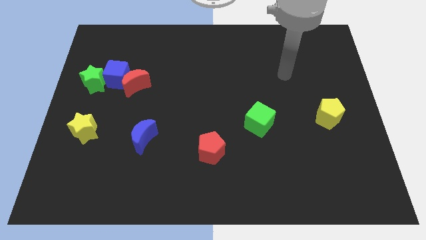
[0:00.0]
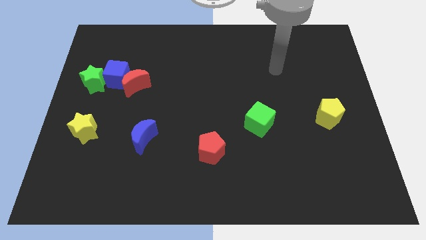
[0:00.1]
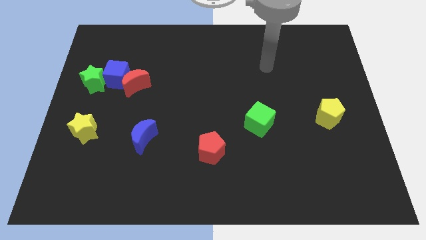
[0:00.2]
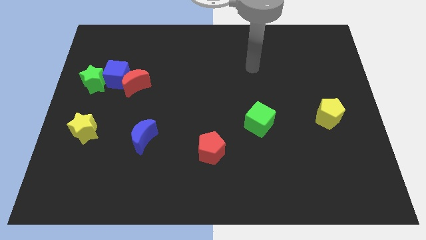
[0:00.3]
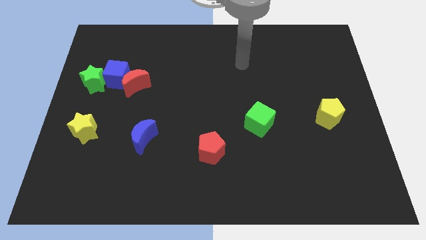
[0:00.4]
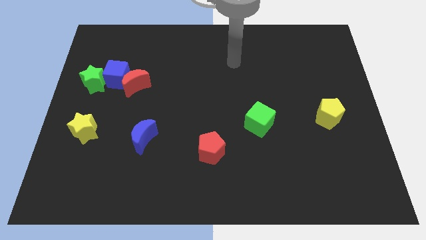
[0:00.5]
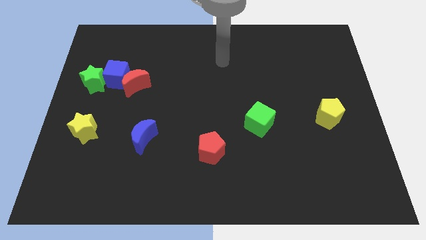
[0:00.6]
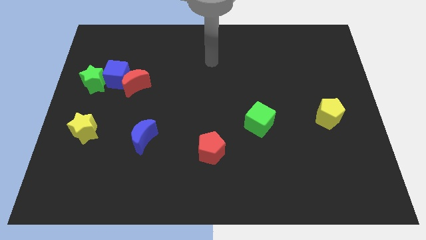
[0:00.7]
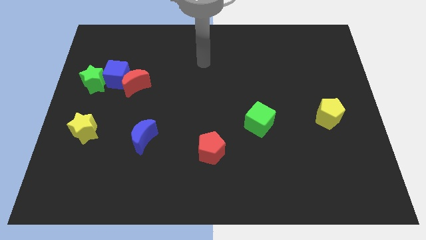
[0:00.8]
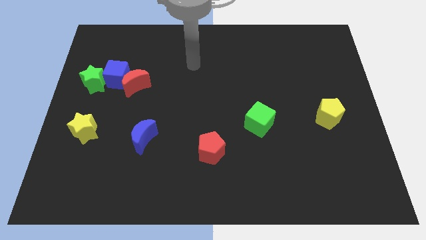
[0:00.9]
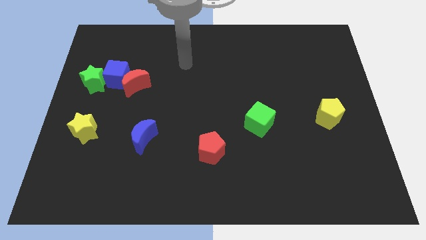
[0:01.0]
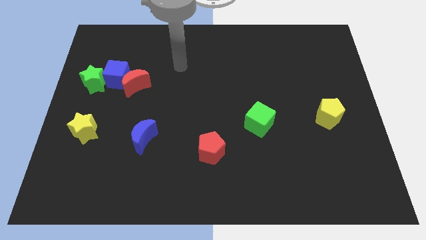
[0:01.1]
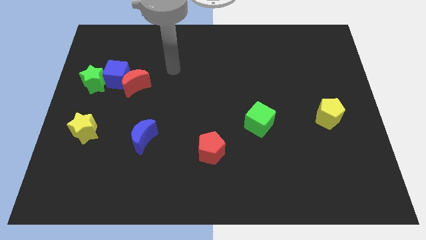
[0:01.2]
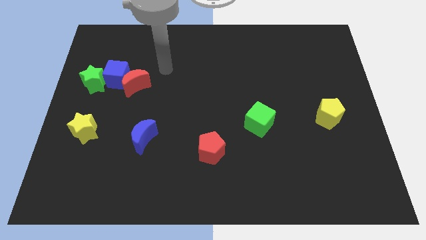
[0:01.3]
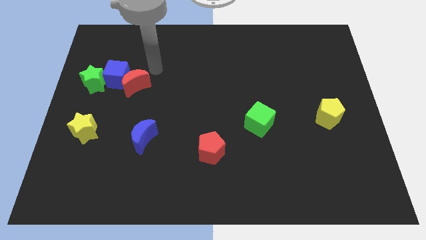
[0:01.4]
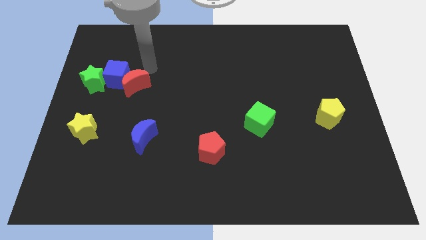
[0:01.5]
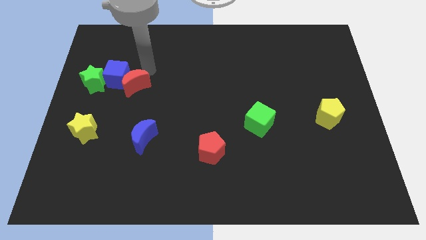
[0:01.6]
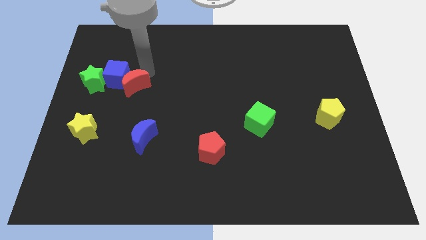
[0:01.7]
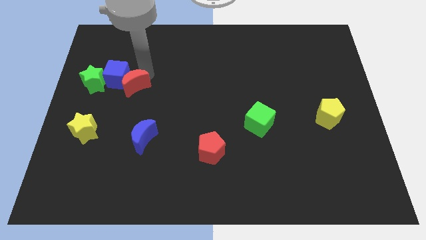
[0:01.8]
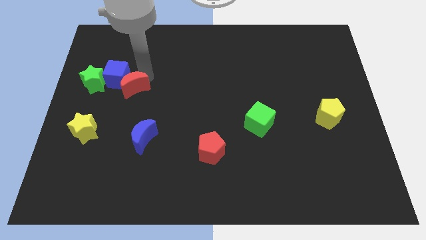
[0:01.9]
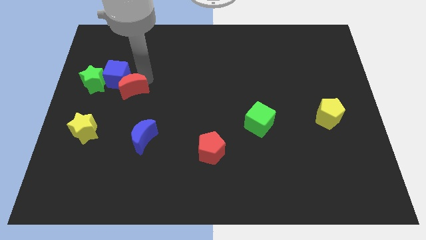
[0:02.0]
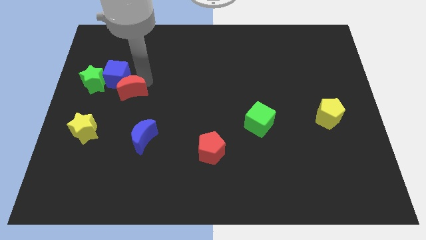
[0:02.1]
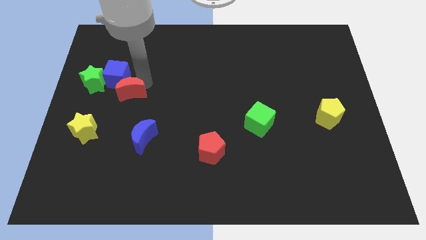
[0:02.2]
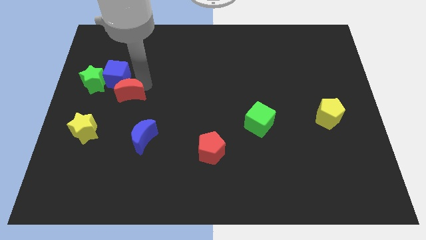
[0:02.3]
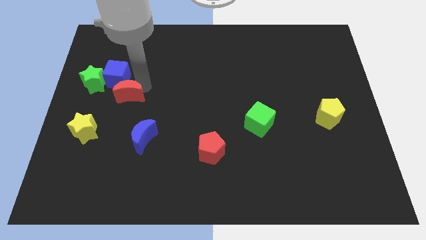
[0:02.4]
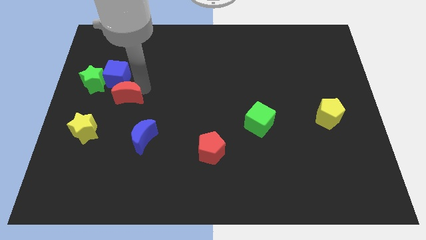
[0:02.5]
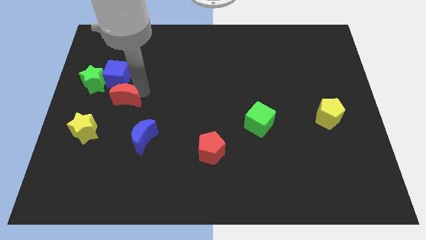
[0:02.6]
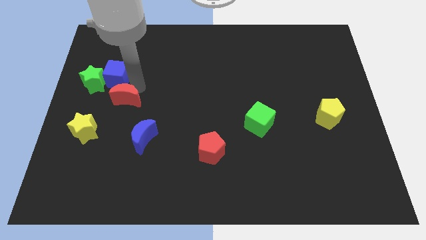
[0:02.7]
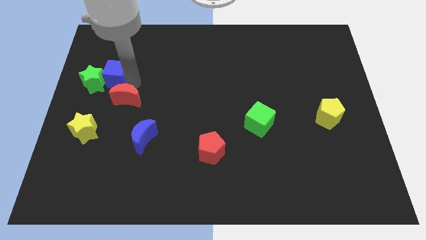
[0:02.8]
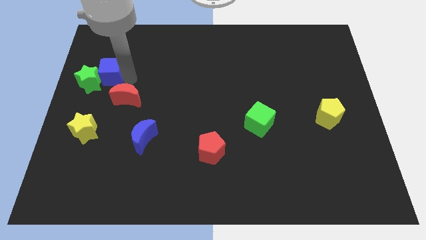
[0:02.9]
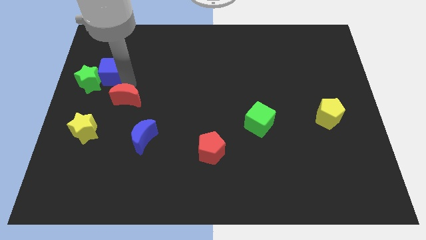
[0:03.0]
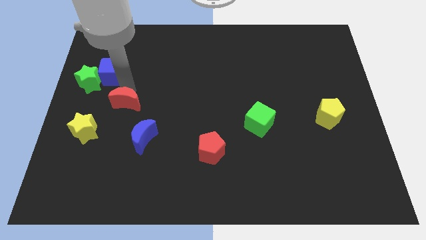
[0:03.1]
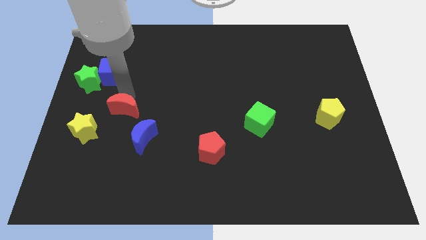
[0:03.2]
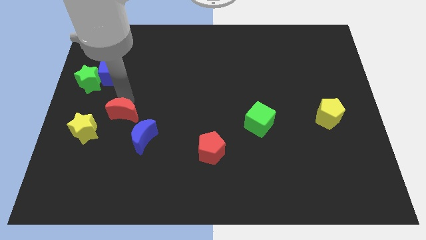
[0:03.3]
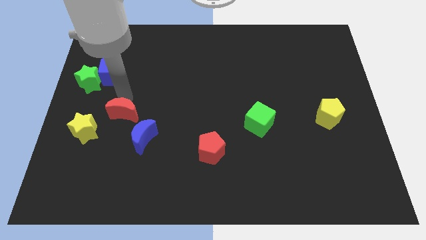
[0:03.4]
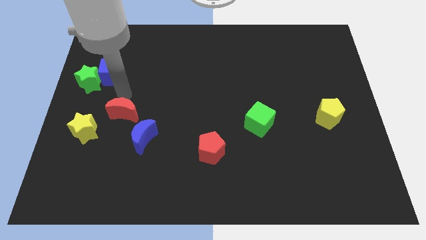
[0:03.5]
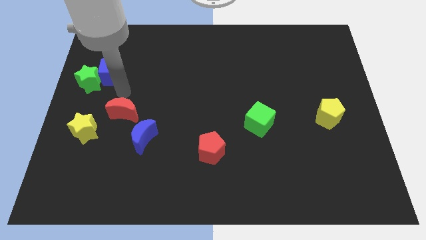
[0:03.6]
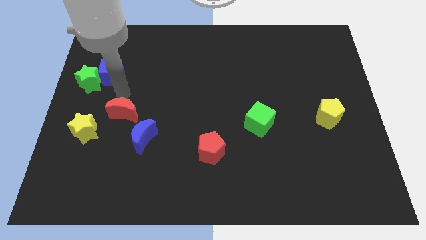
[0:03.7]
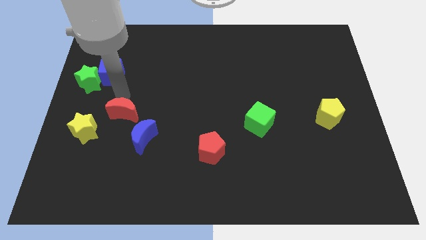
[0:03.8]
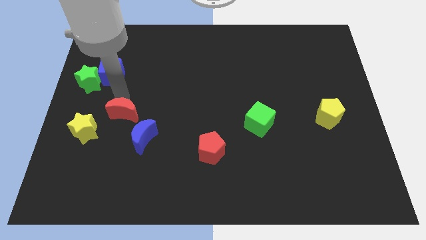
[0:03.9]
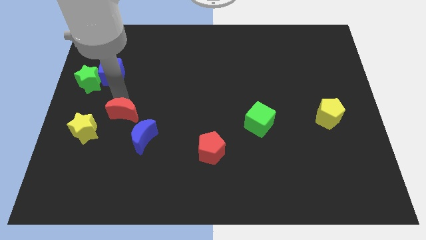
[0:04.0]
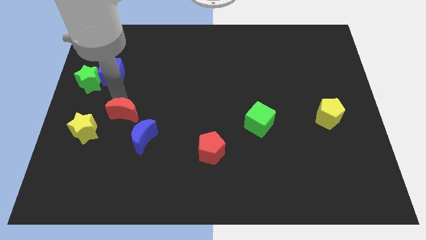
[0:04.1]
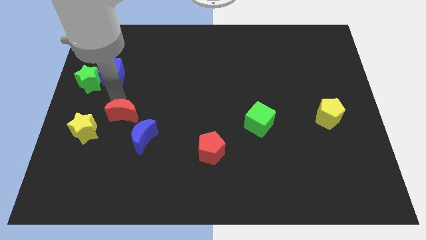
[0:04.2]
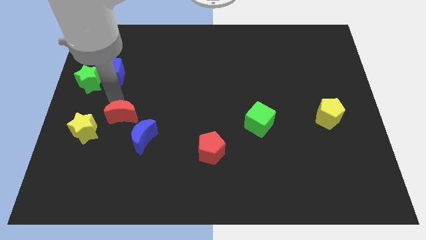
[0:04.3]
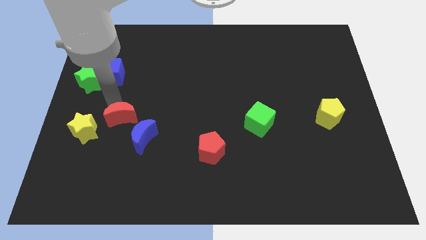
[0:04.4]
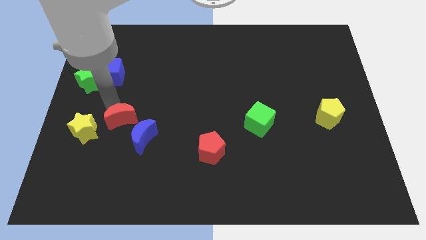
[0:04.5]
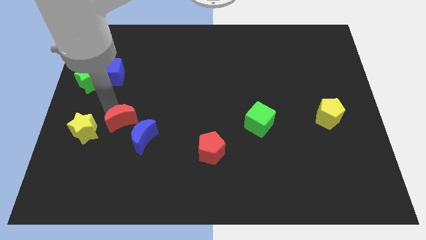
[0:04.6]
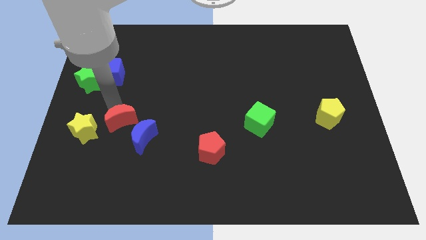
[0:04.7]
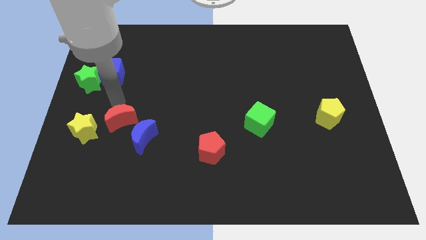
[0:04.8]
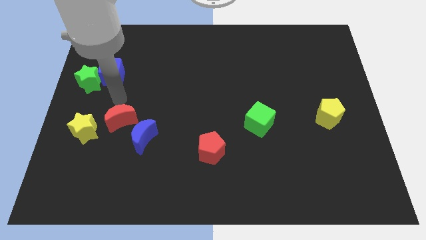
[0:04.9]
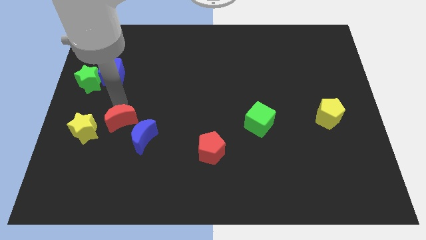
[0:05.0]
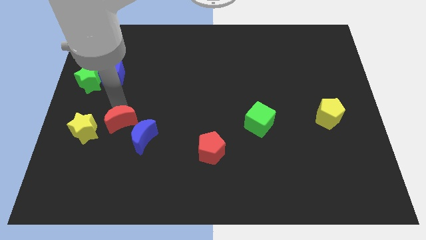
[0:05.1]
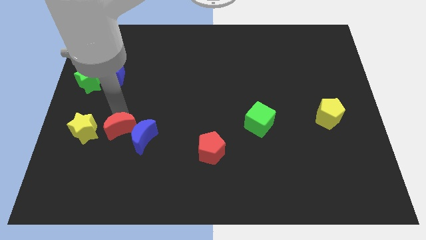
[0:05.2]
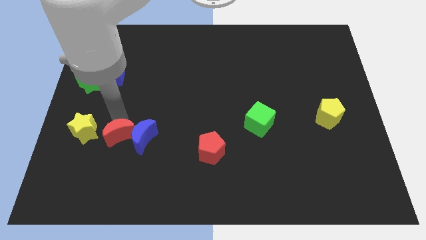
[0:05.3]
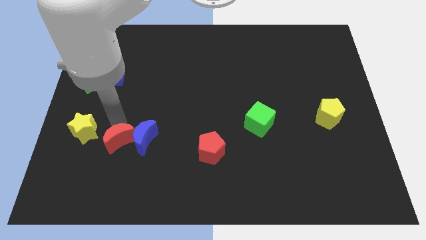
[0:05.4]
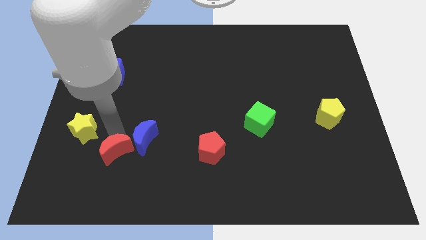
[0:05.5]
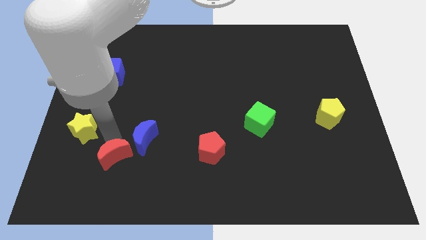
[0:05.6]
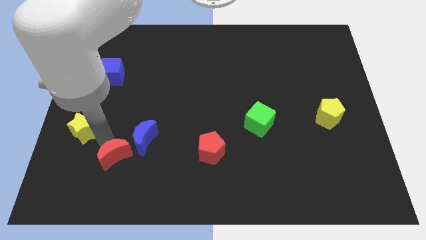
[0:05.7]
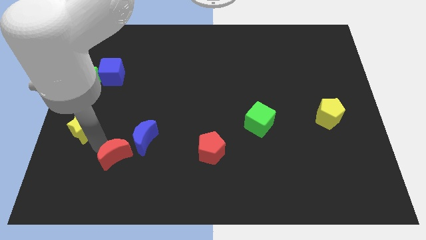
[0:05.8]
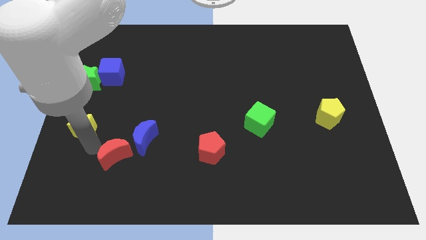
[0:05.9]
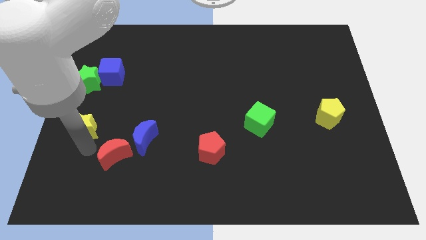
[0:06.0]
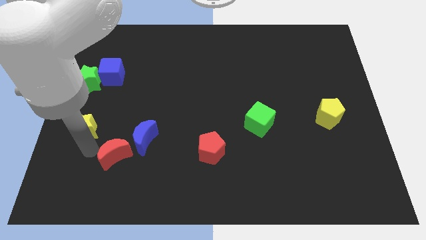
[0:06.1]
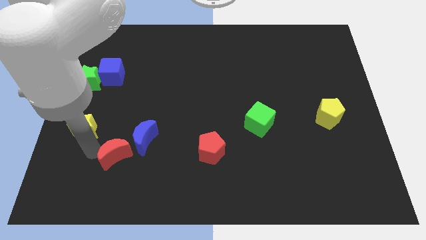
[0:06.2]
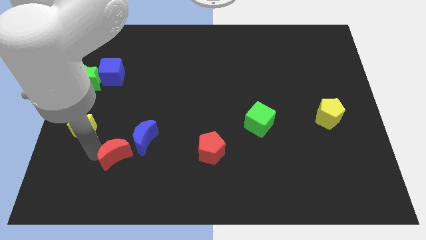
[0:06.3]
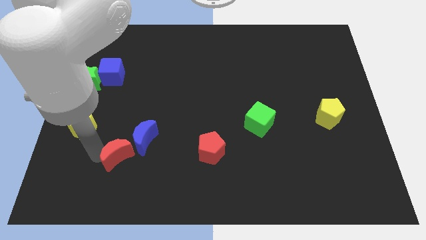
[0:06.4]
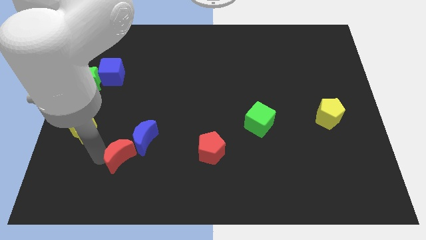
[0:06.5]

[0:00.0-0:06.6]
slide the red moon to the bottom side of the blue moon
